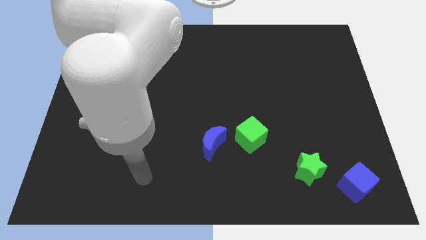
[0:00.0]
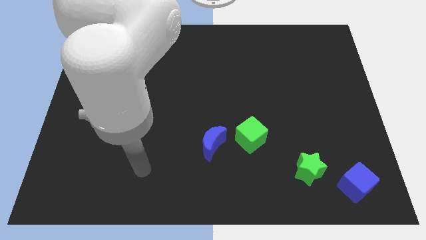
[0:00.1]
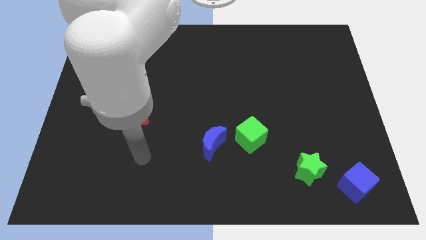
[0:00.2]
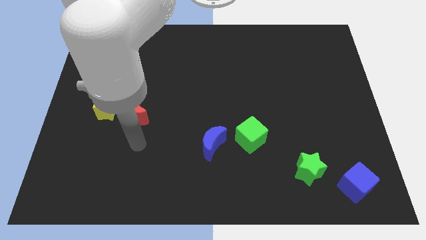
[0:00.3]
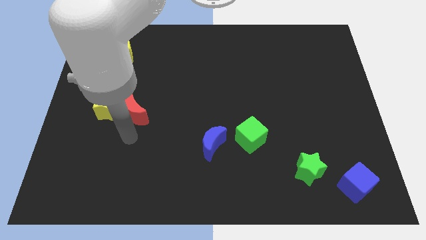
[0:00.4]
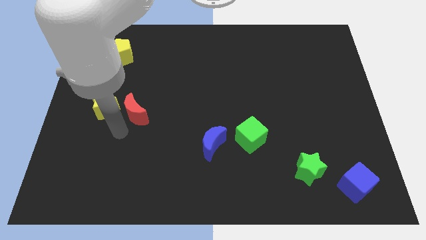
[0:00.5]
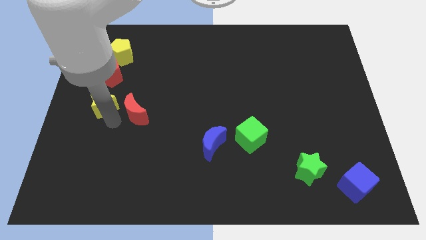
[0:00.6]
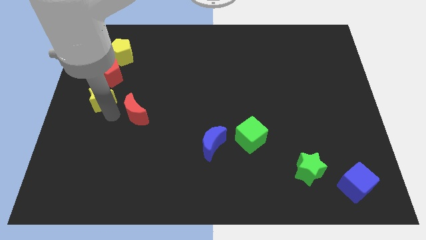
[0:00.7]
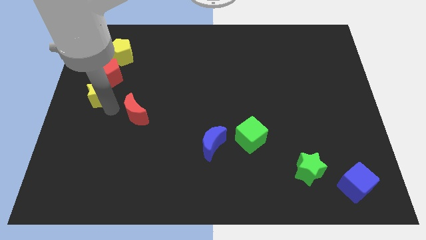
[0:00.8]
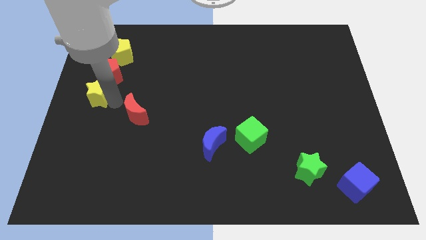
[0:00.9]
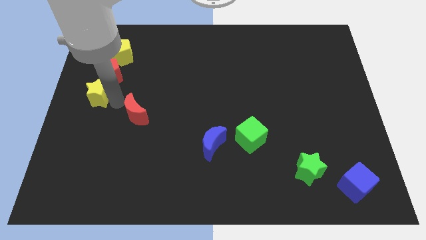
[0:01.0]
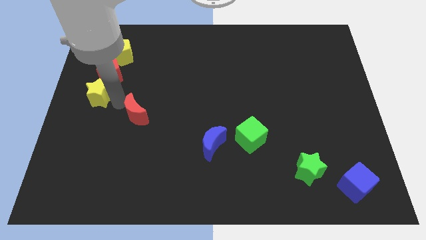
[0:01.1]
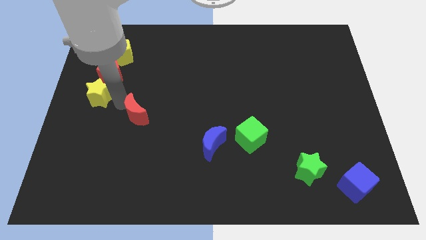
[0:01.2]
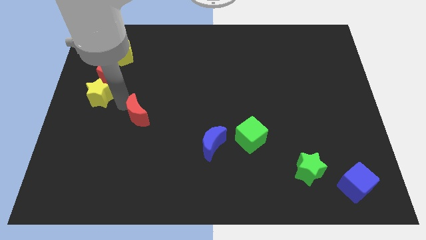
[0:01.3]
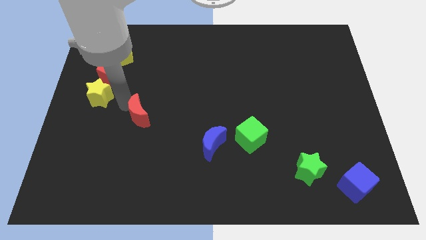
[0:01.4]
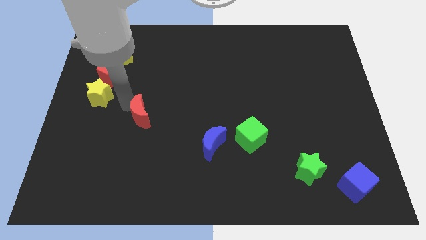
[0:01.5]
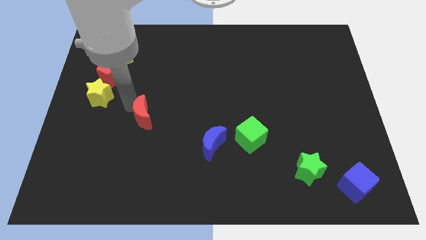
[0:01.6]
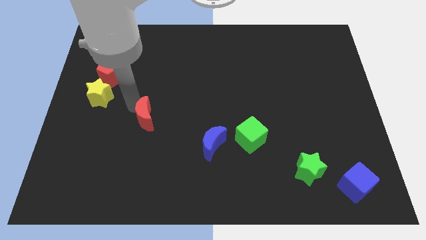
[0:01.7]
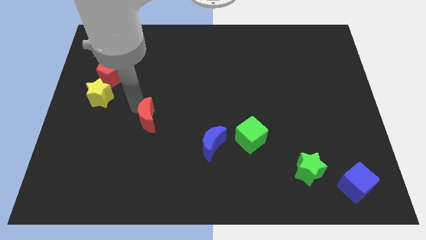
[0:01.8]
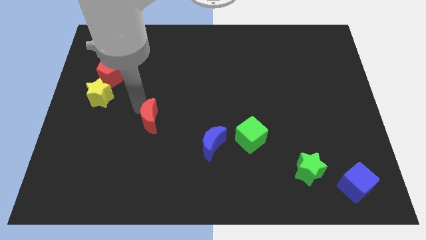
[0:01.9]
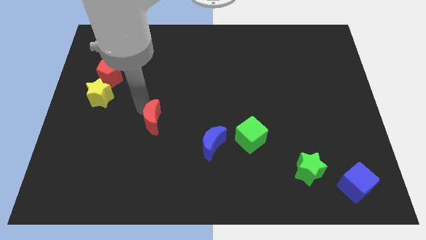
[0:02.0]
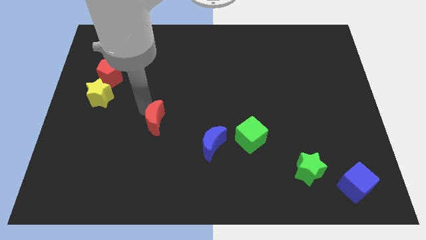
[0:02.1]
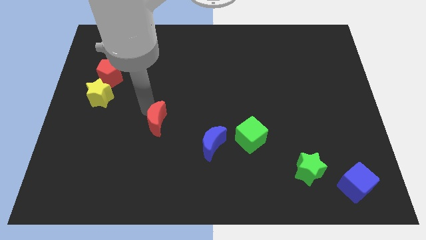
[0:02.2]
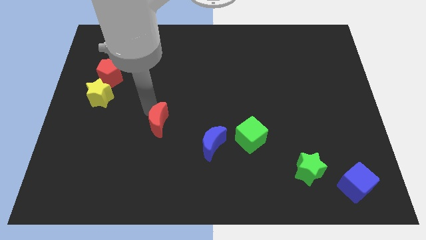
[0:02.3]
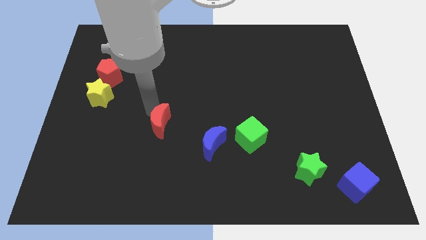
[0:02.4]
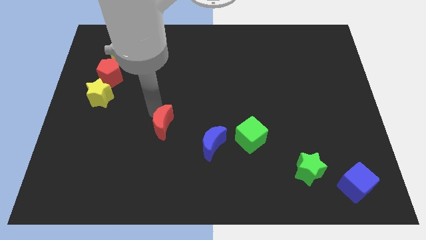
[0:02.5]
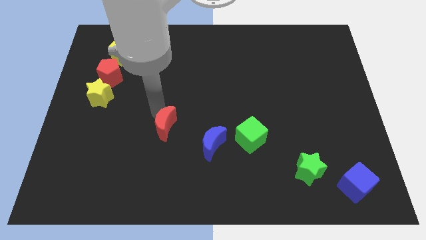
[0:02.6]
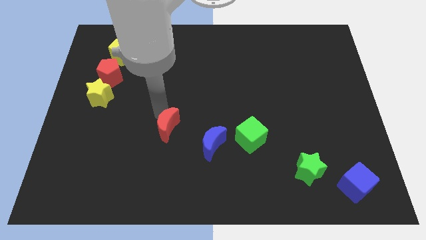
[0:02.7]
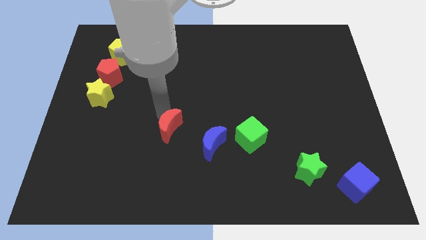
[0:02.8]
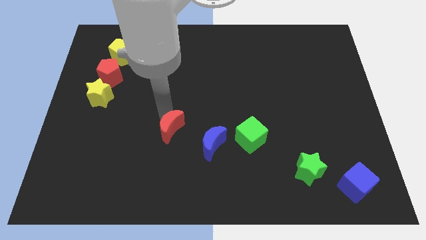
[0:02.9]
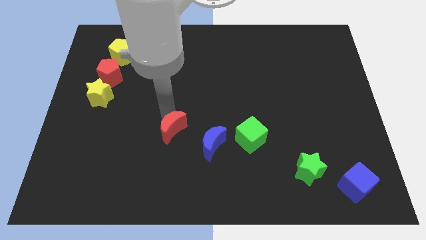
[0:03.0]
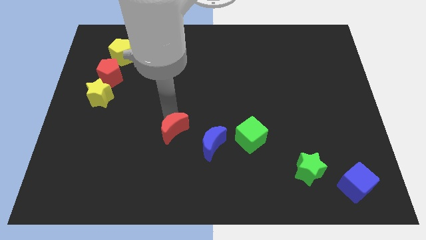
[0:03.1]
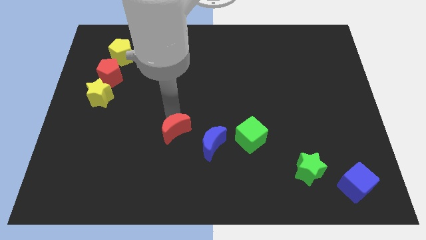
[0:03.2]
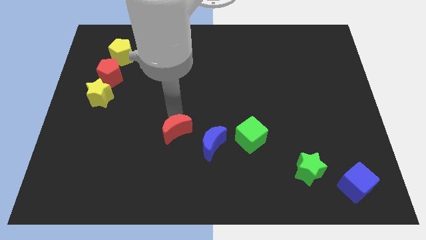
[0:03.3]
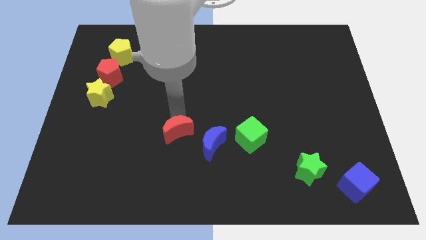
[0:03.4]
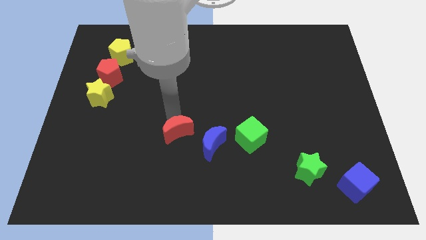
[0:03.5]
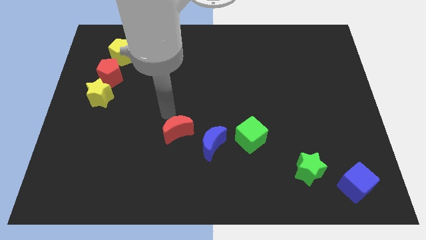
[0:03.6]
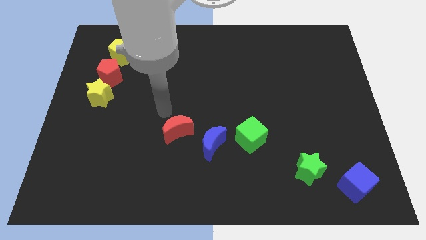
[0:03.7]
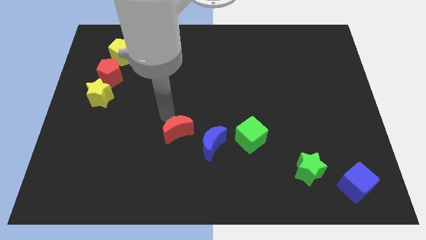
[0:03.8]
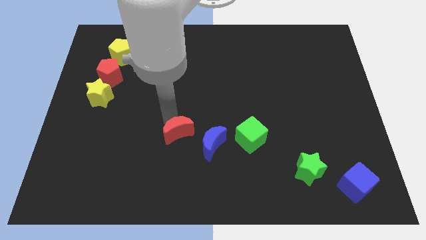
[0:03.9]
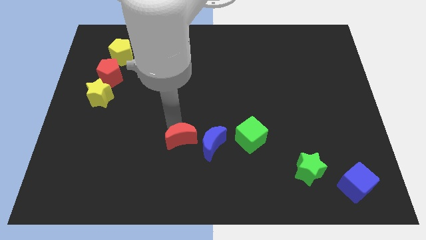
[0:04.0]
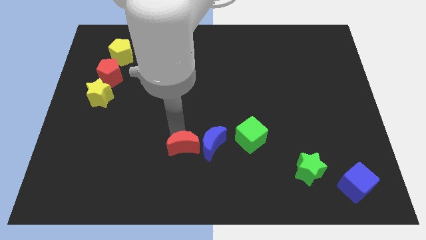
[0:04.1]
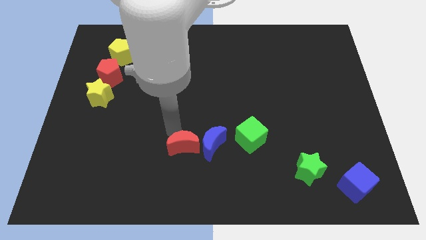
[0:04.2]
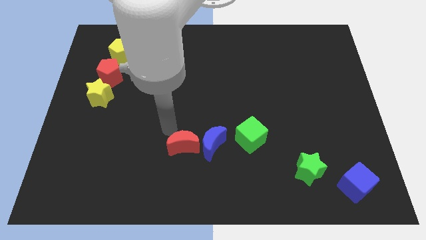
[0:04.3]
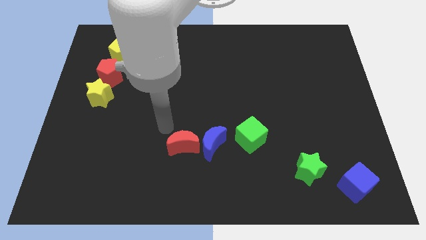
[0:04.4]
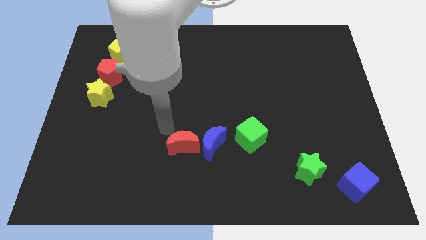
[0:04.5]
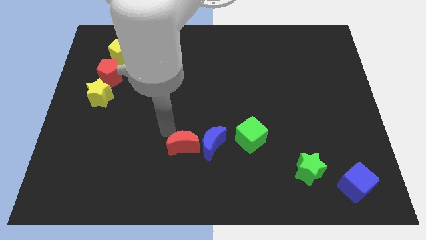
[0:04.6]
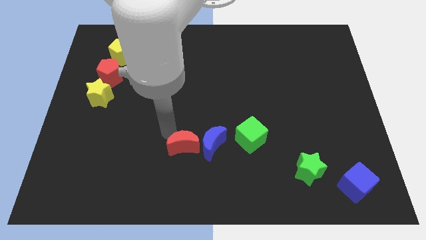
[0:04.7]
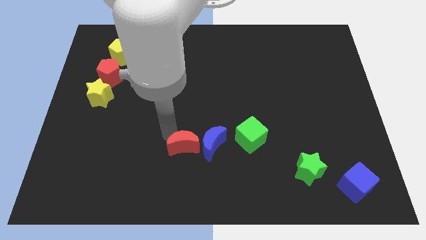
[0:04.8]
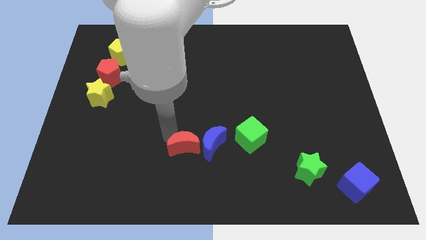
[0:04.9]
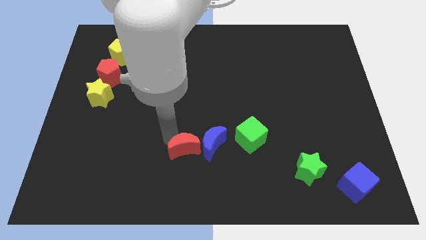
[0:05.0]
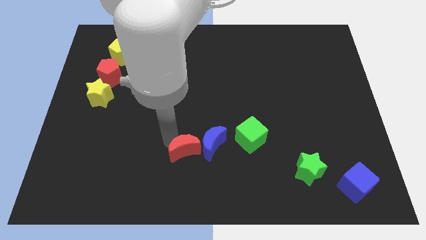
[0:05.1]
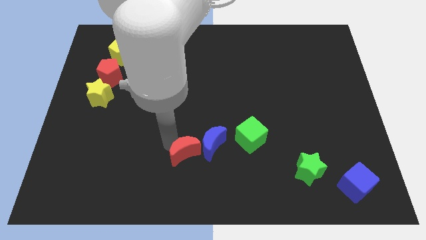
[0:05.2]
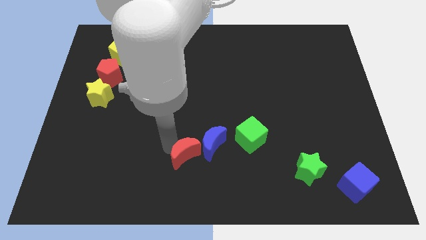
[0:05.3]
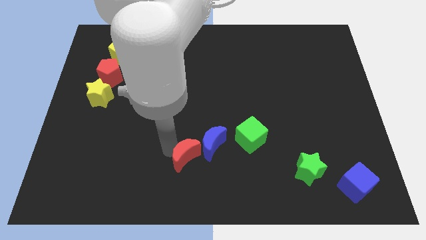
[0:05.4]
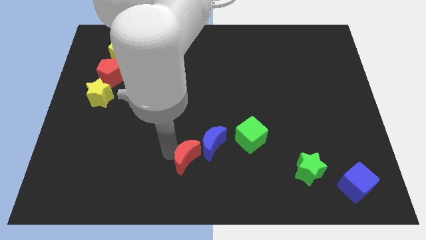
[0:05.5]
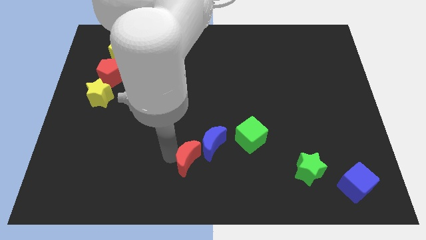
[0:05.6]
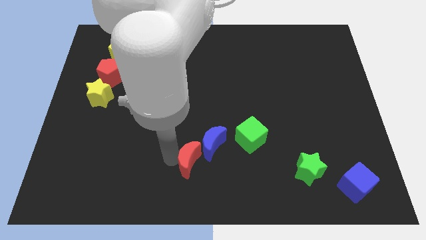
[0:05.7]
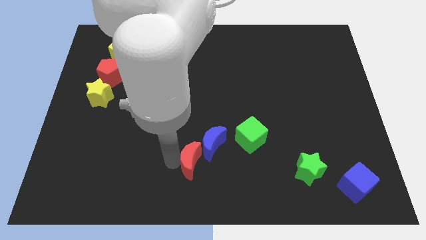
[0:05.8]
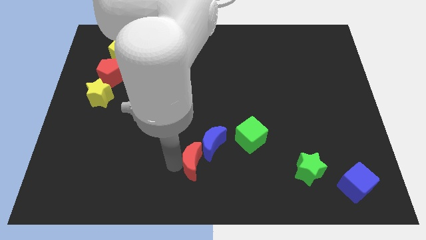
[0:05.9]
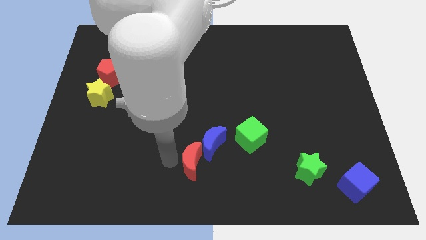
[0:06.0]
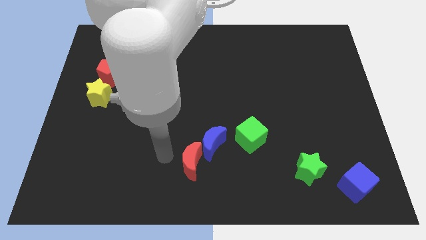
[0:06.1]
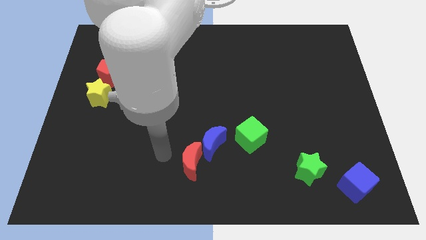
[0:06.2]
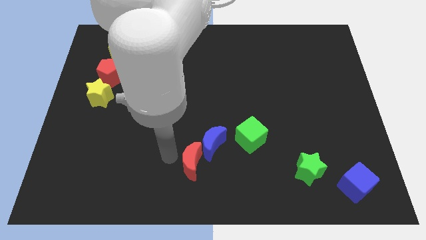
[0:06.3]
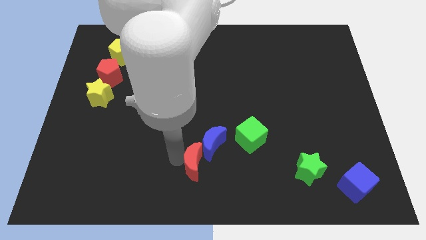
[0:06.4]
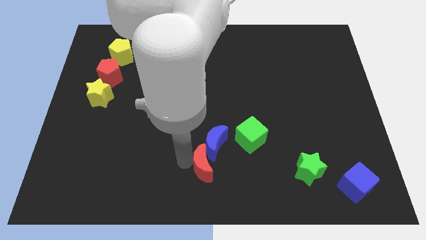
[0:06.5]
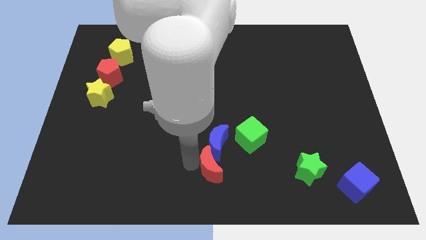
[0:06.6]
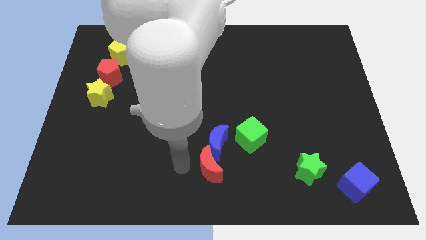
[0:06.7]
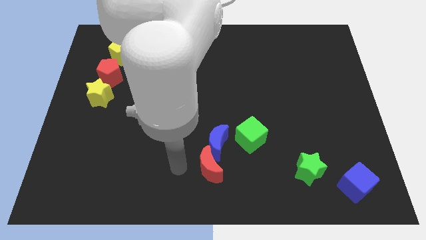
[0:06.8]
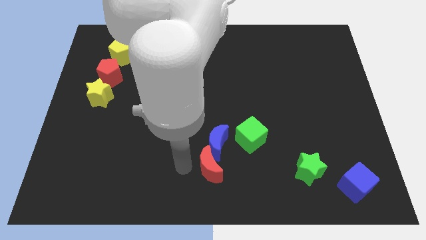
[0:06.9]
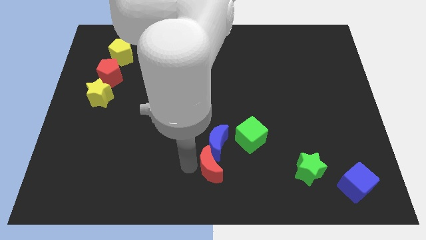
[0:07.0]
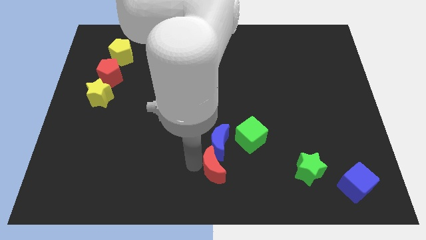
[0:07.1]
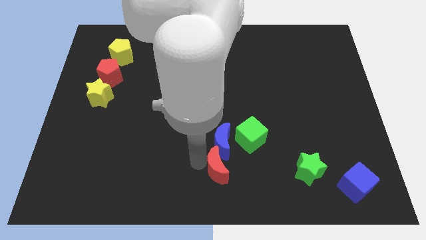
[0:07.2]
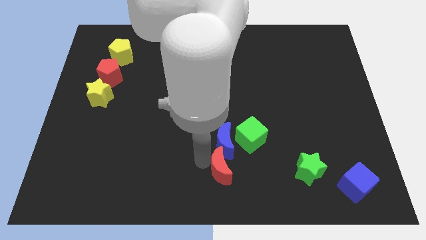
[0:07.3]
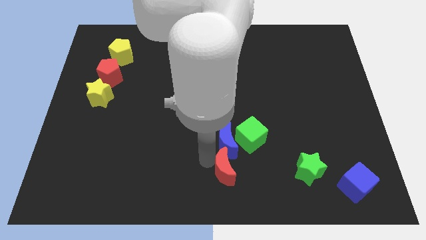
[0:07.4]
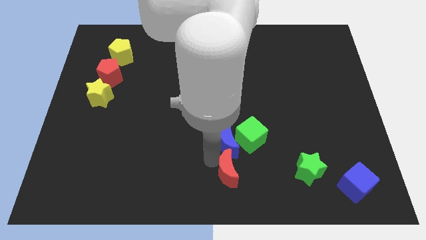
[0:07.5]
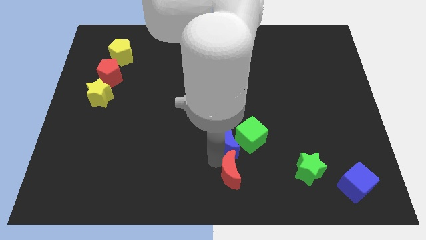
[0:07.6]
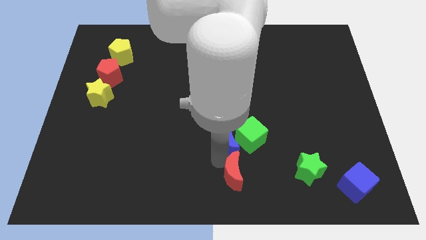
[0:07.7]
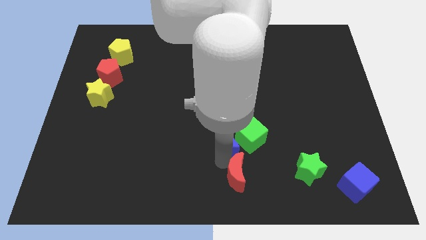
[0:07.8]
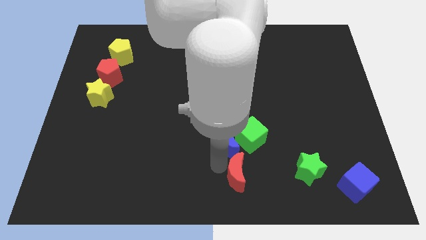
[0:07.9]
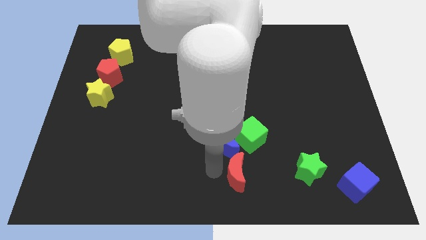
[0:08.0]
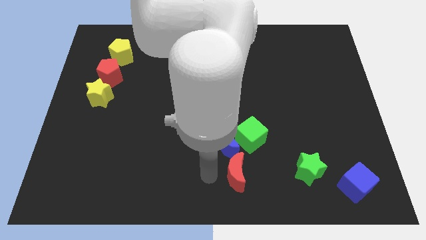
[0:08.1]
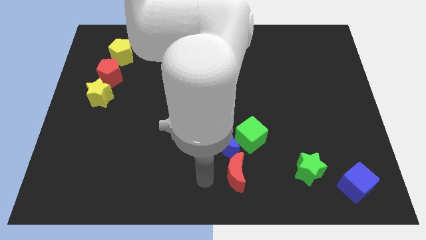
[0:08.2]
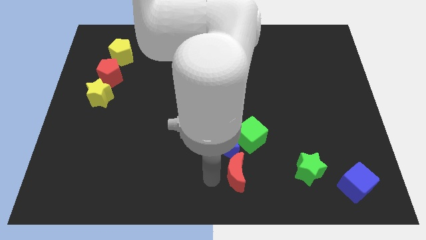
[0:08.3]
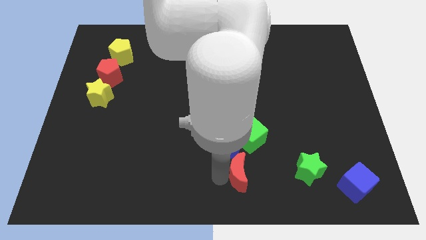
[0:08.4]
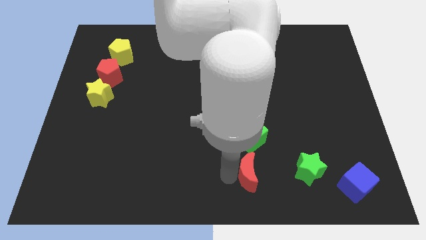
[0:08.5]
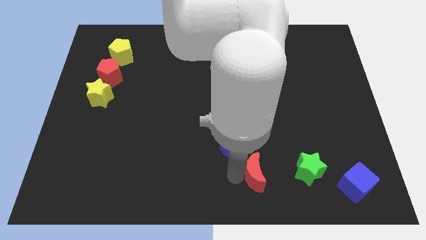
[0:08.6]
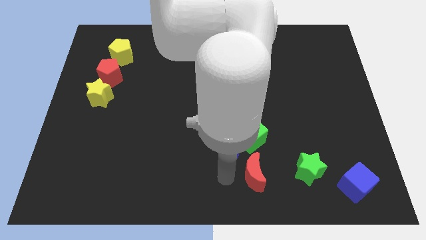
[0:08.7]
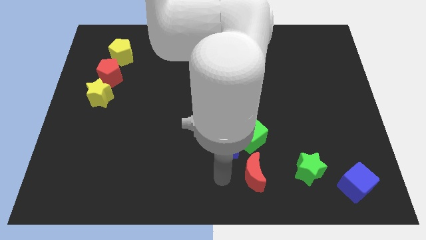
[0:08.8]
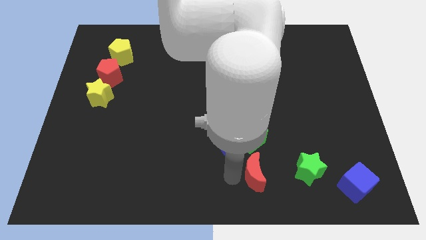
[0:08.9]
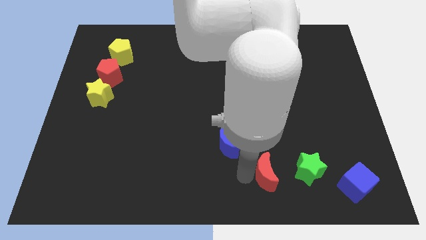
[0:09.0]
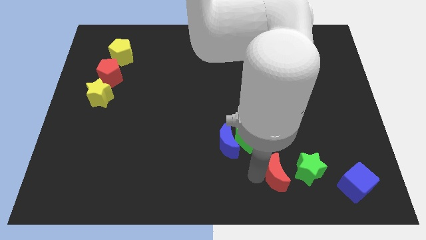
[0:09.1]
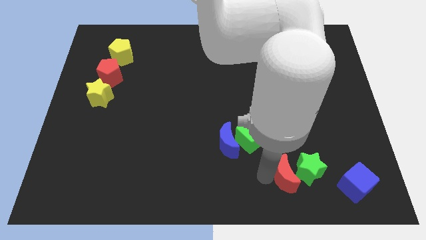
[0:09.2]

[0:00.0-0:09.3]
push the red moon next to the green star
